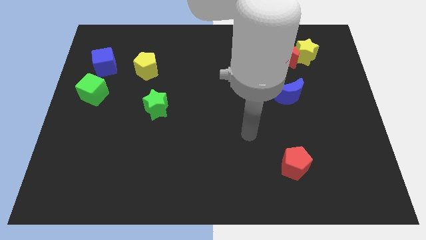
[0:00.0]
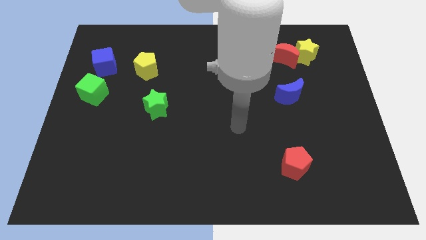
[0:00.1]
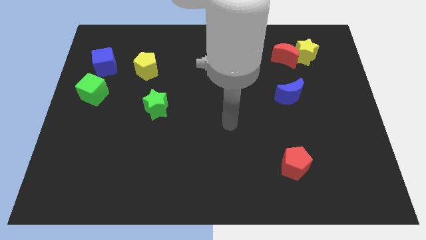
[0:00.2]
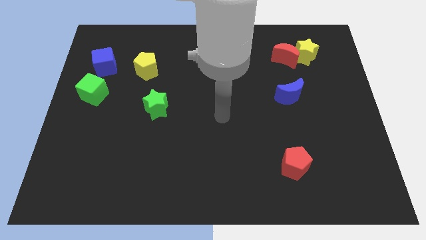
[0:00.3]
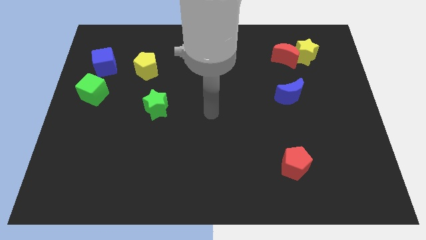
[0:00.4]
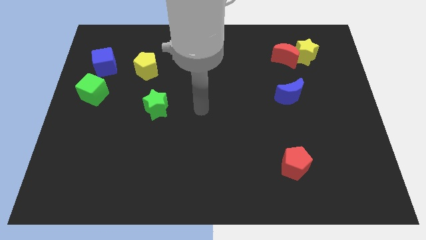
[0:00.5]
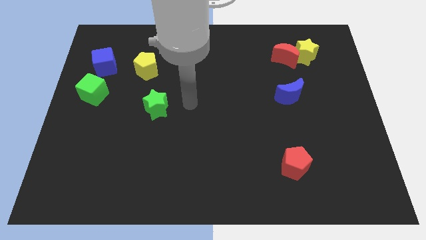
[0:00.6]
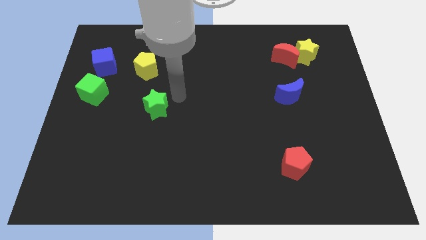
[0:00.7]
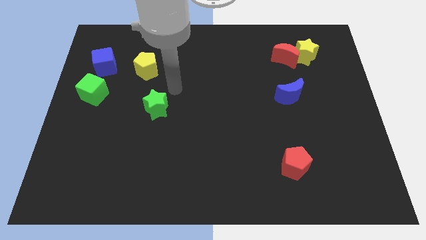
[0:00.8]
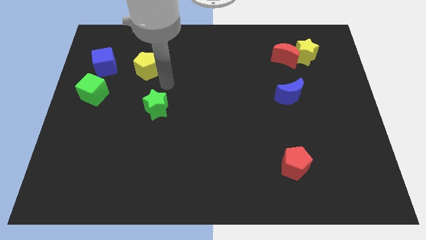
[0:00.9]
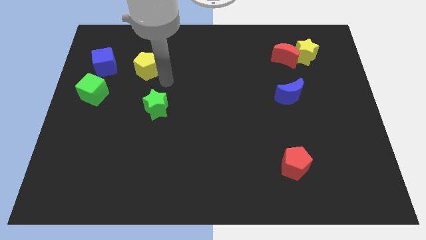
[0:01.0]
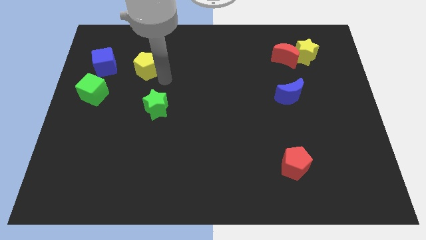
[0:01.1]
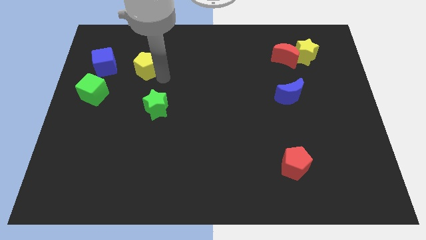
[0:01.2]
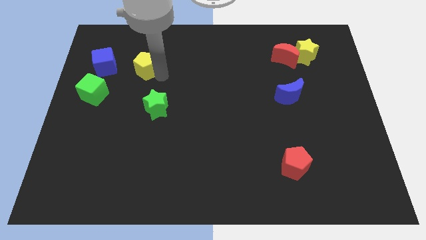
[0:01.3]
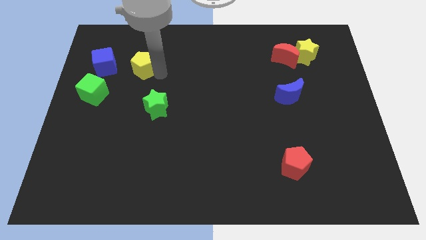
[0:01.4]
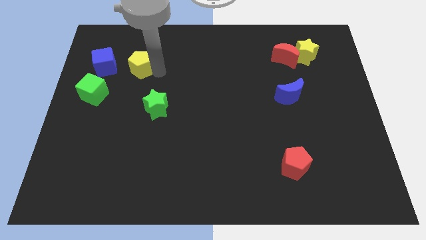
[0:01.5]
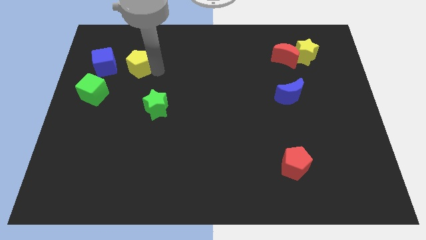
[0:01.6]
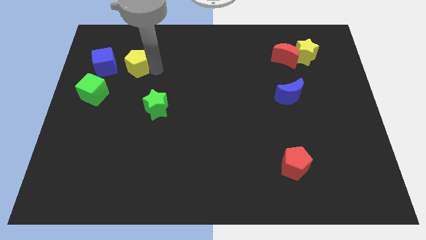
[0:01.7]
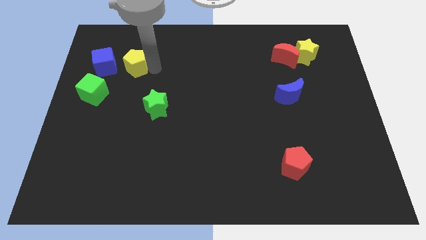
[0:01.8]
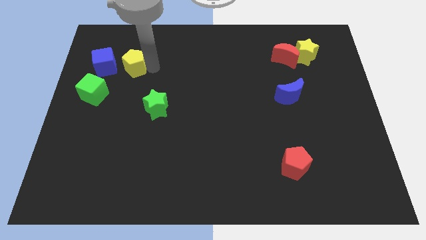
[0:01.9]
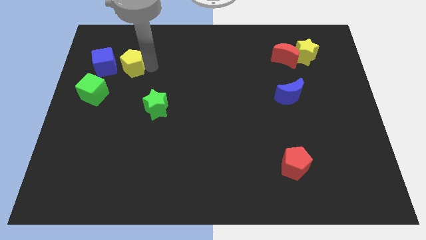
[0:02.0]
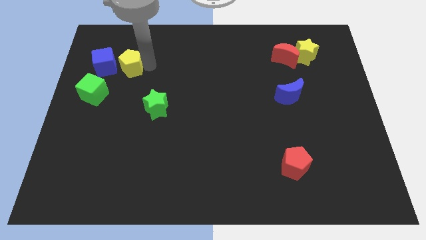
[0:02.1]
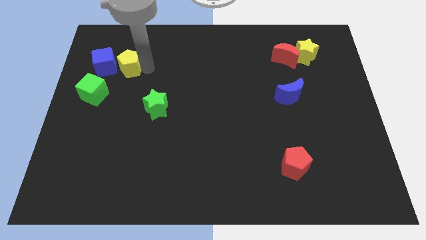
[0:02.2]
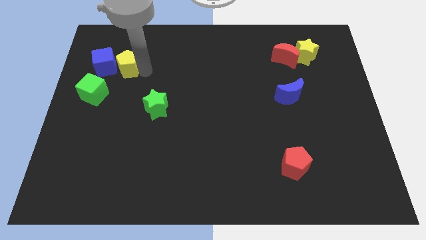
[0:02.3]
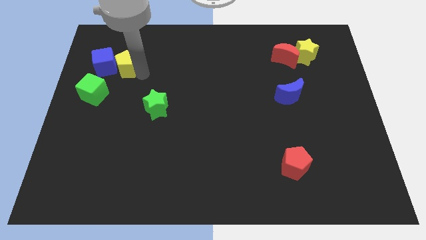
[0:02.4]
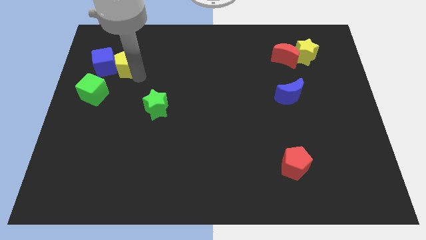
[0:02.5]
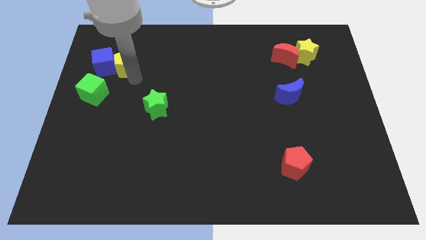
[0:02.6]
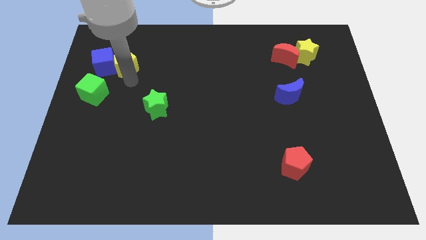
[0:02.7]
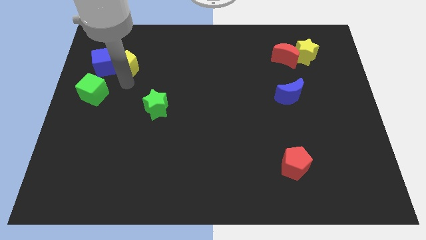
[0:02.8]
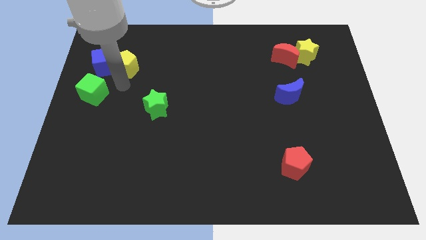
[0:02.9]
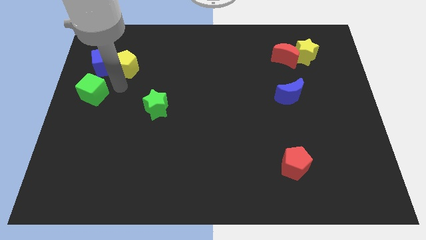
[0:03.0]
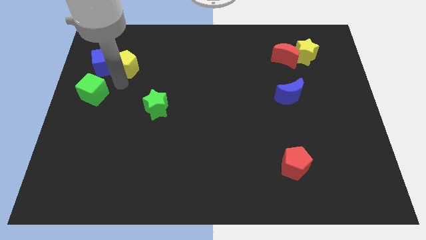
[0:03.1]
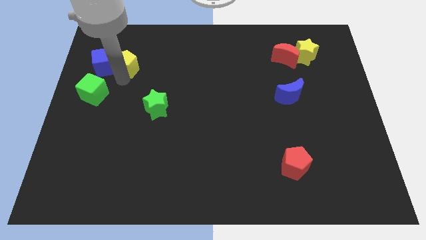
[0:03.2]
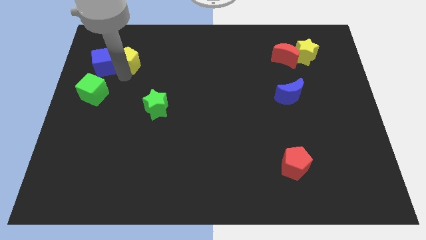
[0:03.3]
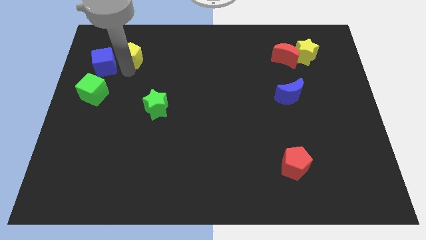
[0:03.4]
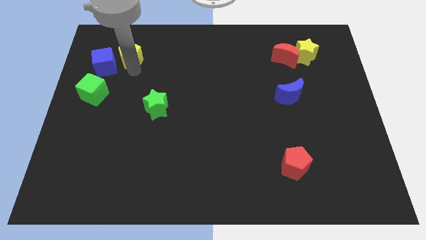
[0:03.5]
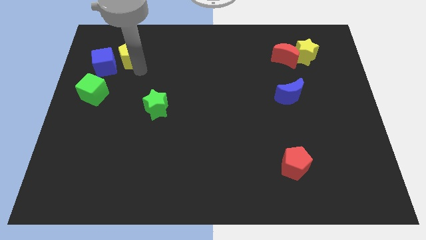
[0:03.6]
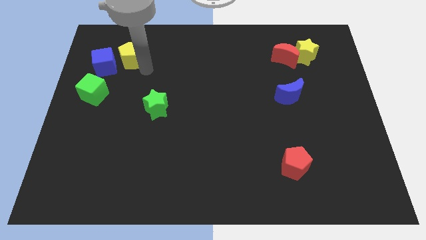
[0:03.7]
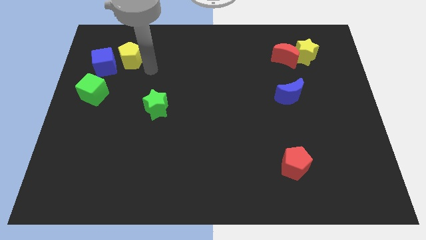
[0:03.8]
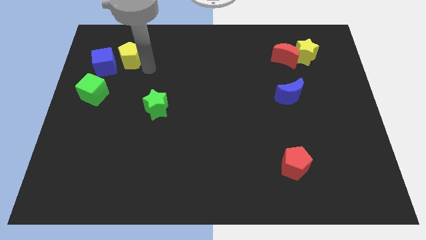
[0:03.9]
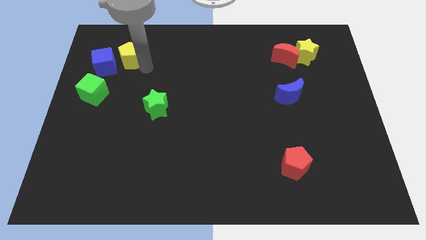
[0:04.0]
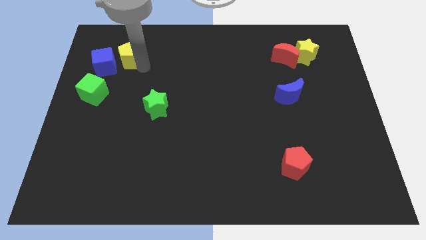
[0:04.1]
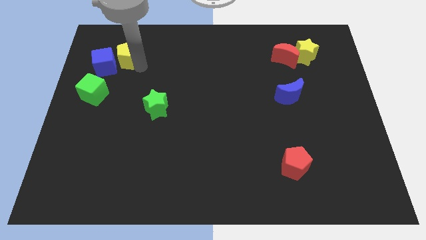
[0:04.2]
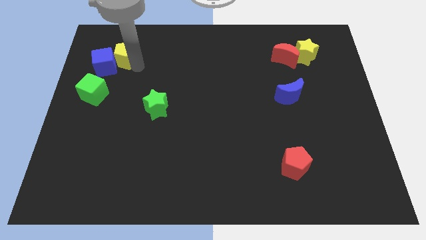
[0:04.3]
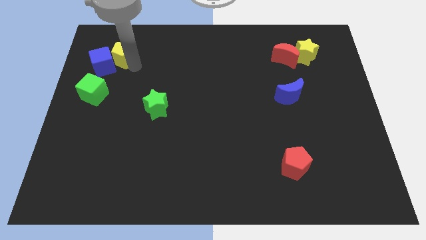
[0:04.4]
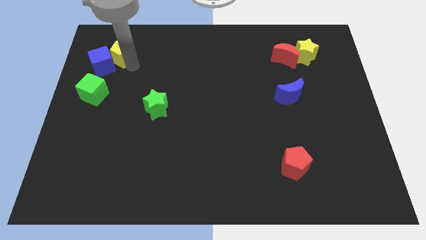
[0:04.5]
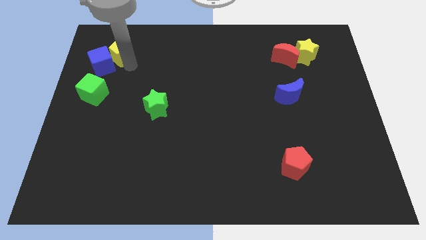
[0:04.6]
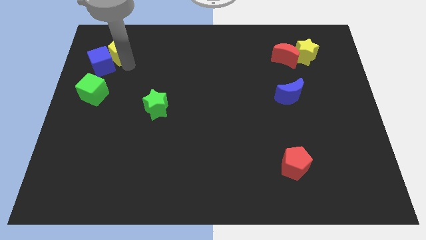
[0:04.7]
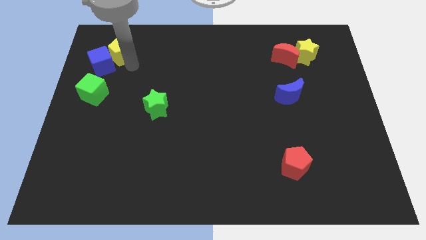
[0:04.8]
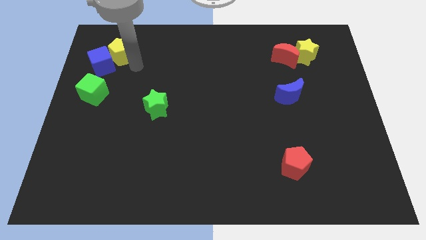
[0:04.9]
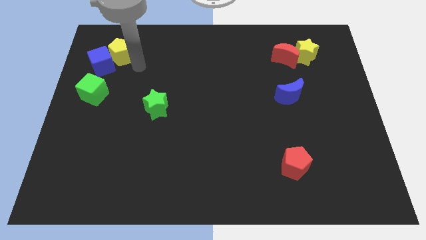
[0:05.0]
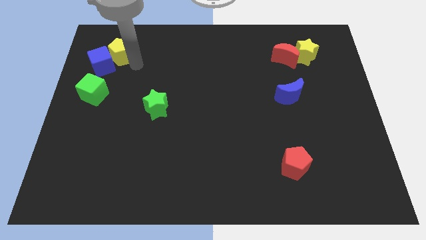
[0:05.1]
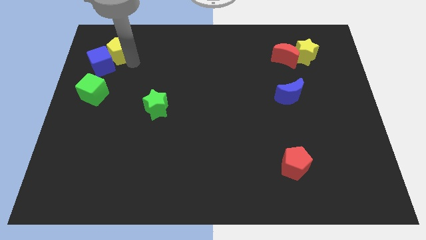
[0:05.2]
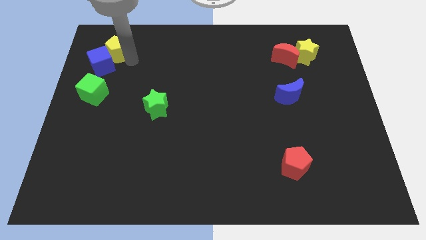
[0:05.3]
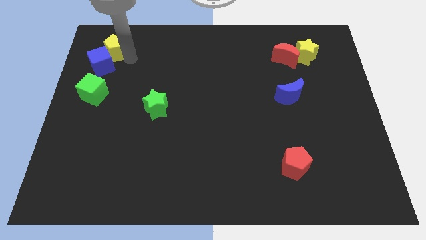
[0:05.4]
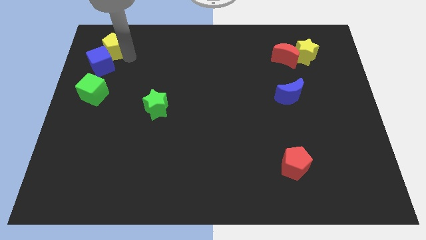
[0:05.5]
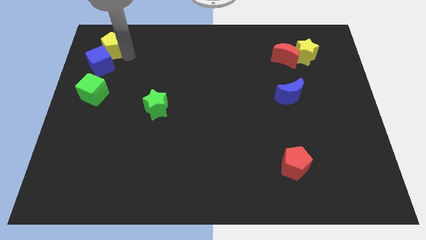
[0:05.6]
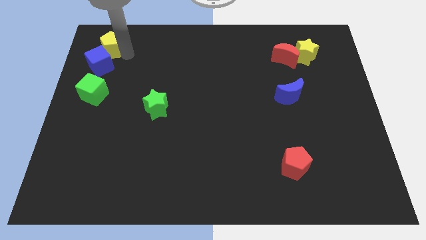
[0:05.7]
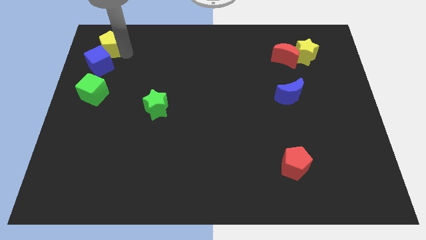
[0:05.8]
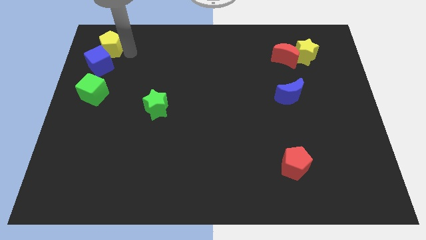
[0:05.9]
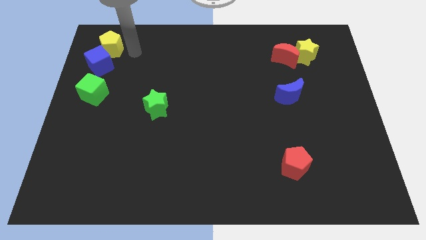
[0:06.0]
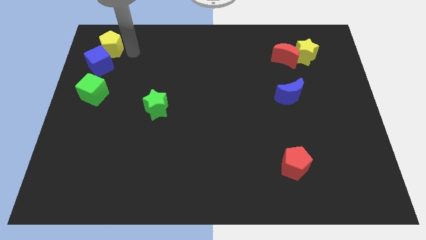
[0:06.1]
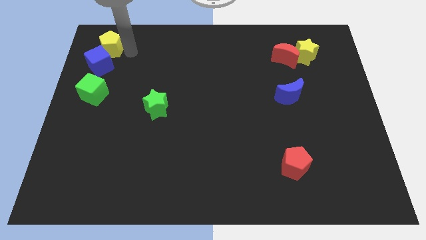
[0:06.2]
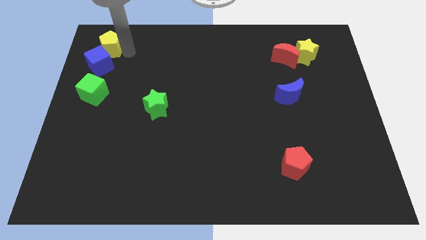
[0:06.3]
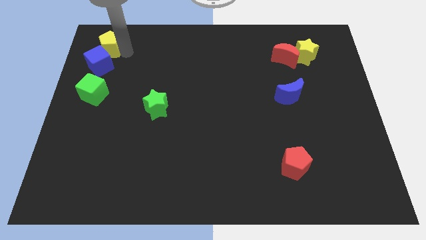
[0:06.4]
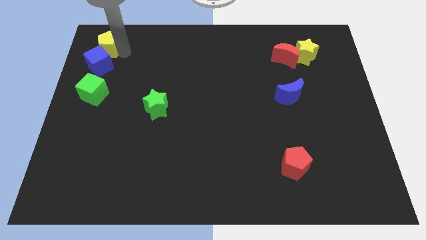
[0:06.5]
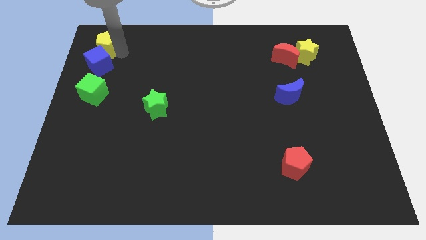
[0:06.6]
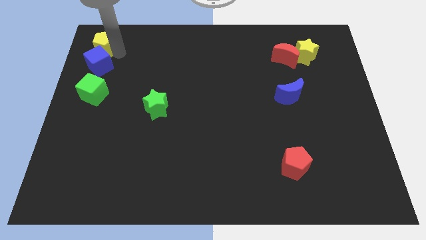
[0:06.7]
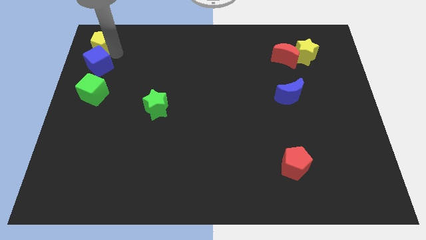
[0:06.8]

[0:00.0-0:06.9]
put the yellow pentagon to the top left corner
